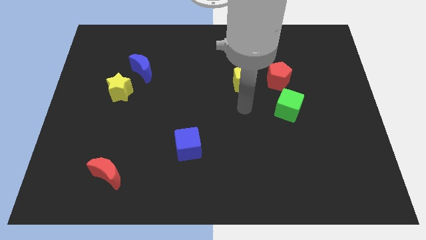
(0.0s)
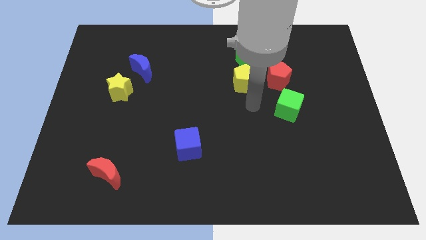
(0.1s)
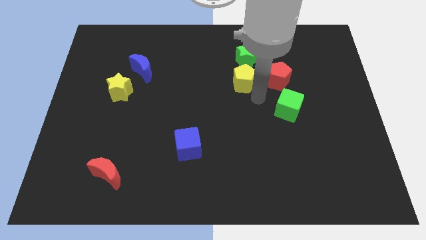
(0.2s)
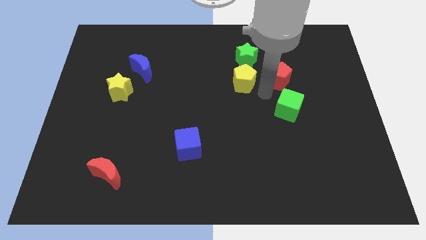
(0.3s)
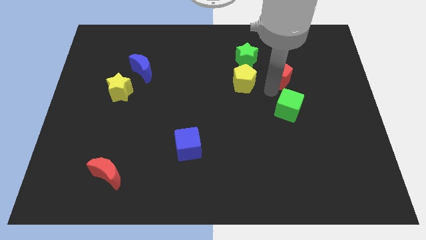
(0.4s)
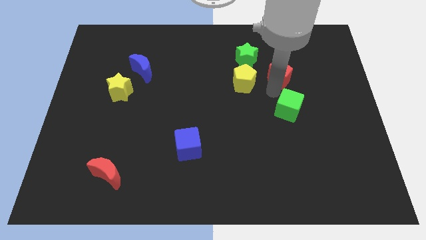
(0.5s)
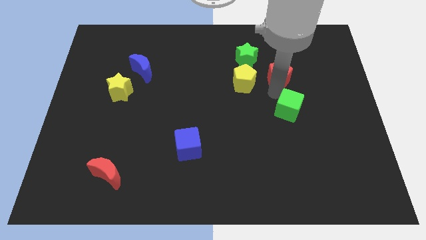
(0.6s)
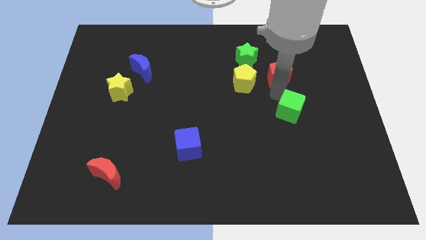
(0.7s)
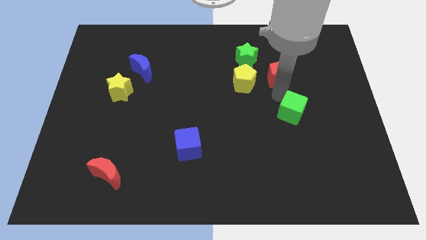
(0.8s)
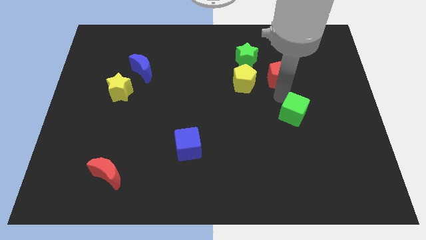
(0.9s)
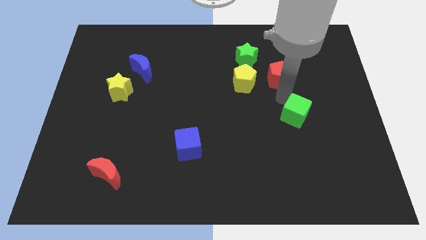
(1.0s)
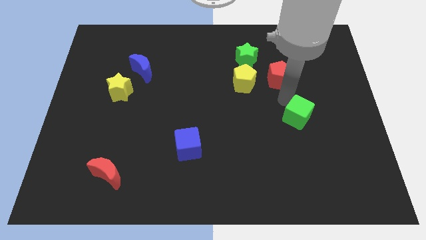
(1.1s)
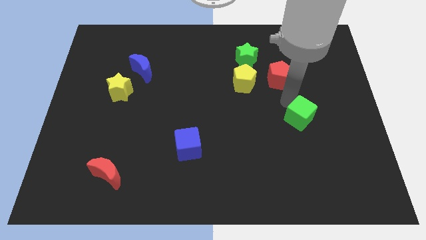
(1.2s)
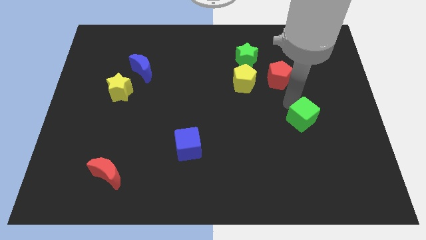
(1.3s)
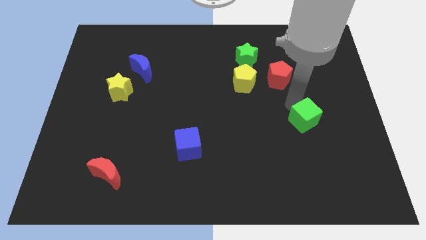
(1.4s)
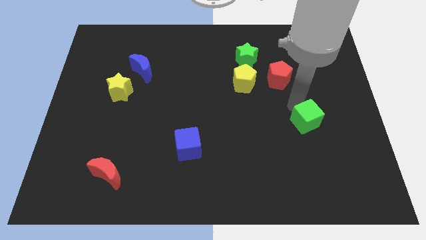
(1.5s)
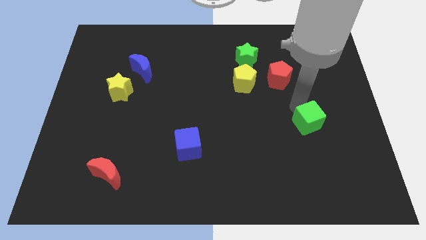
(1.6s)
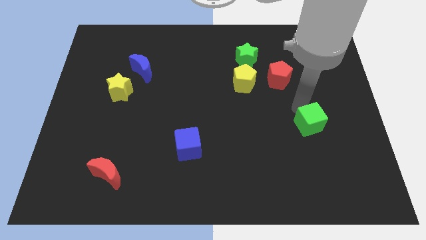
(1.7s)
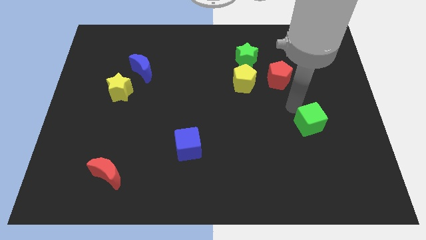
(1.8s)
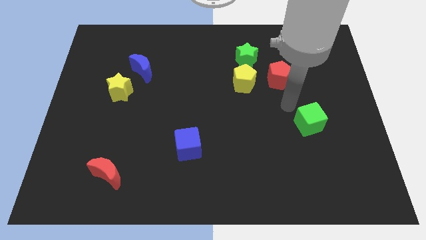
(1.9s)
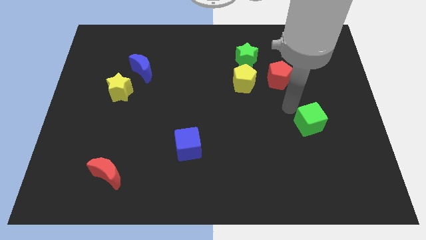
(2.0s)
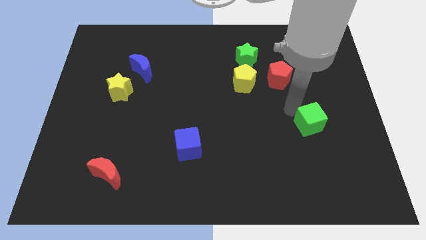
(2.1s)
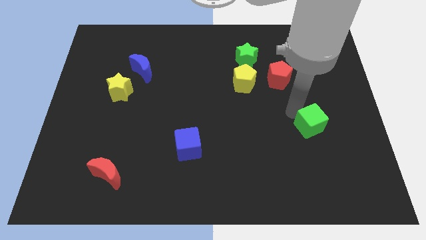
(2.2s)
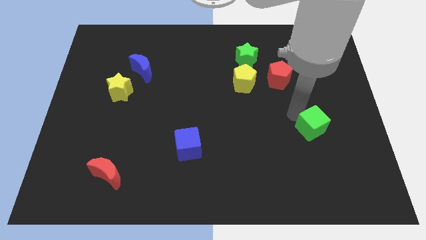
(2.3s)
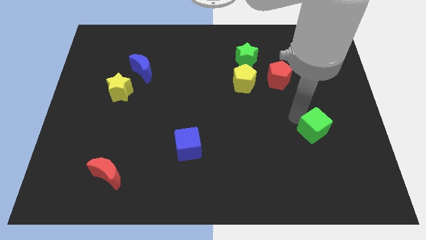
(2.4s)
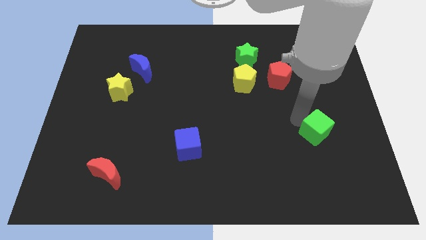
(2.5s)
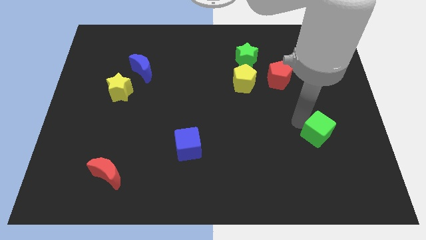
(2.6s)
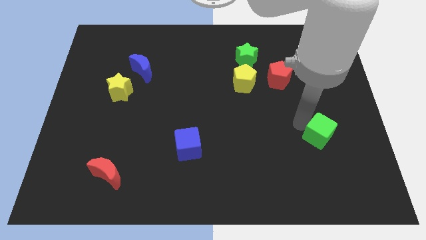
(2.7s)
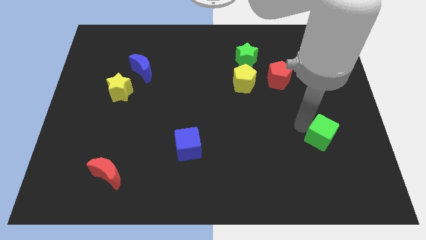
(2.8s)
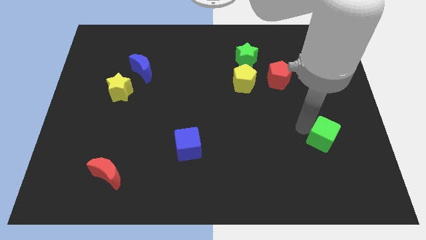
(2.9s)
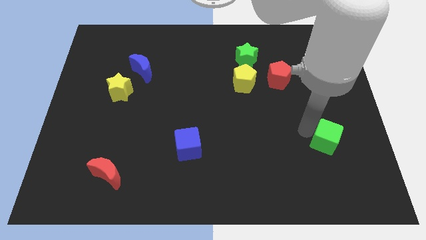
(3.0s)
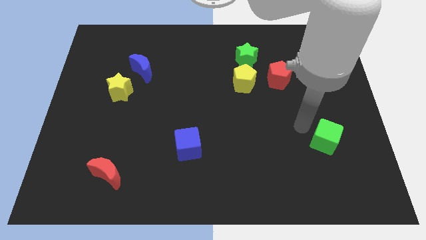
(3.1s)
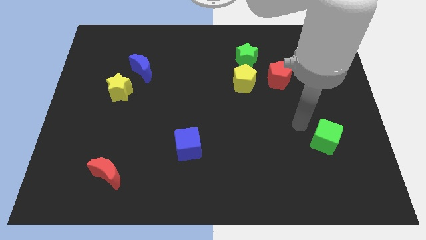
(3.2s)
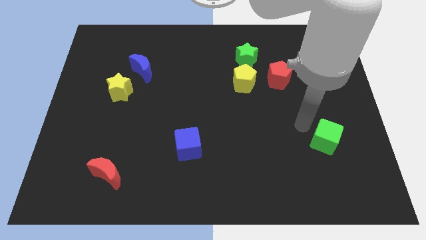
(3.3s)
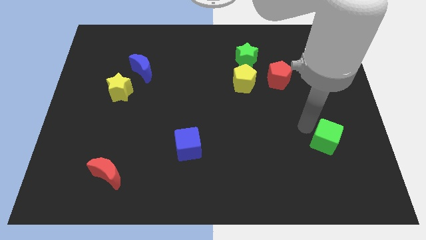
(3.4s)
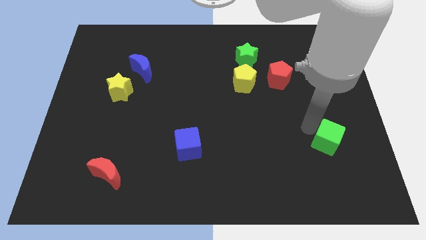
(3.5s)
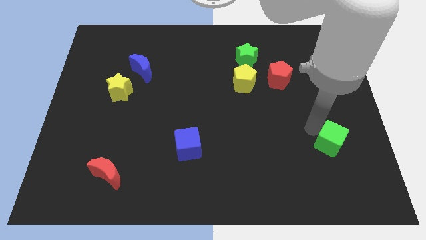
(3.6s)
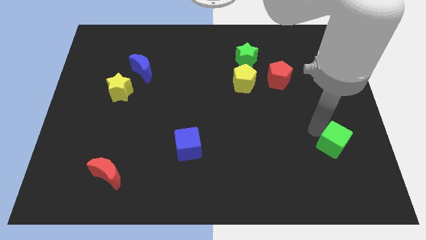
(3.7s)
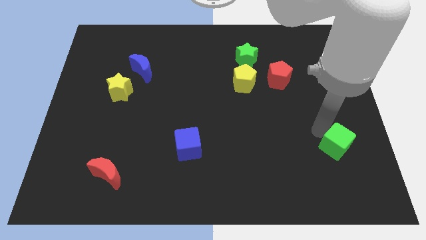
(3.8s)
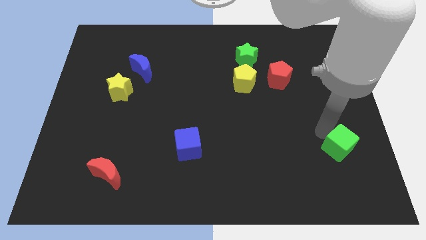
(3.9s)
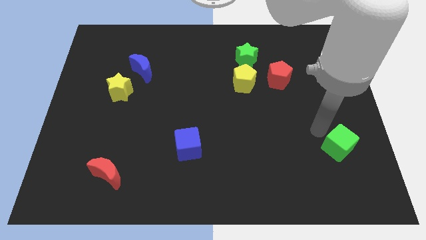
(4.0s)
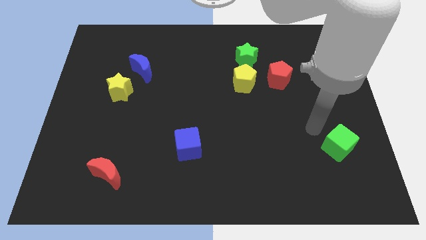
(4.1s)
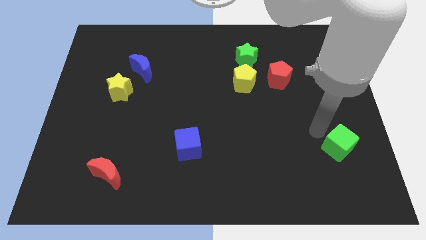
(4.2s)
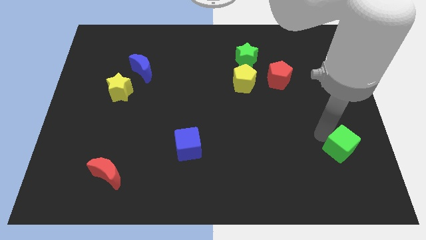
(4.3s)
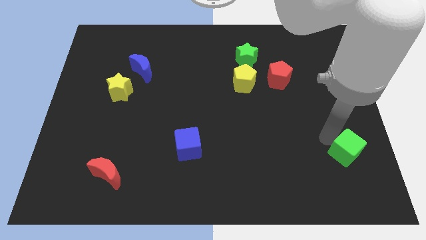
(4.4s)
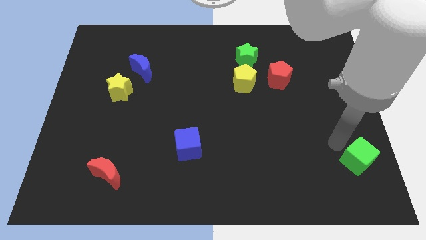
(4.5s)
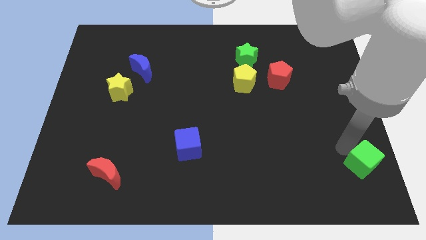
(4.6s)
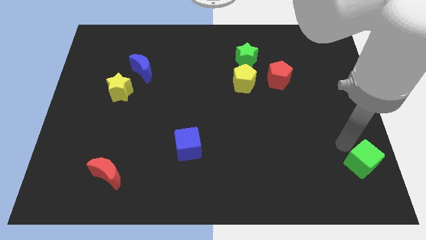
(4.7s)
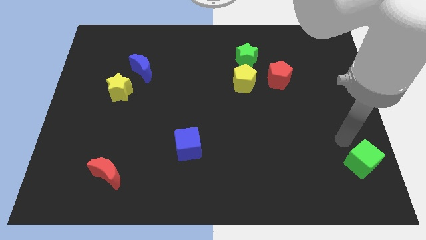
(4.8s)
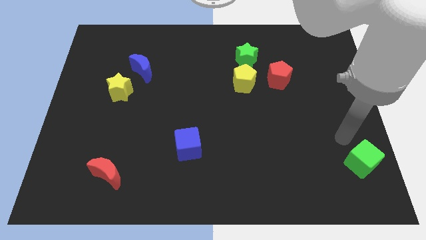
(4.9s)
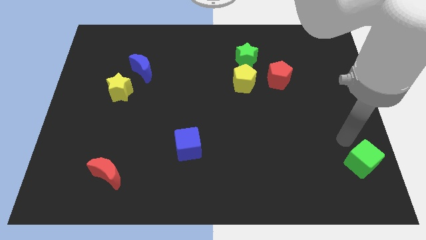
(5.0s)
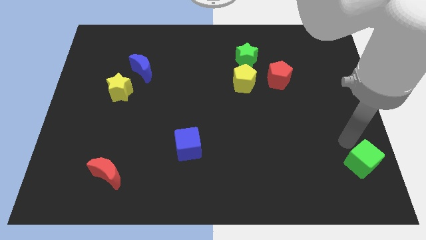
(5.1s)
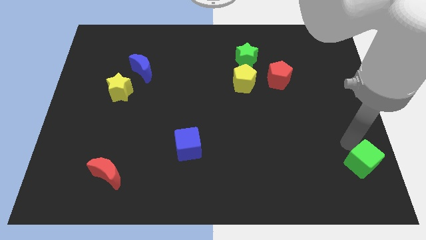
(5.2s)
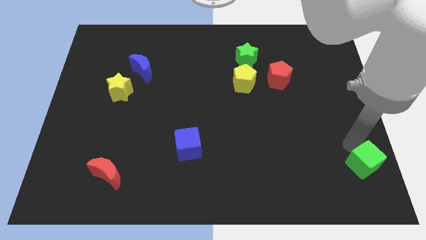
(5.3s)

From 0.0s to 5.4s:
move the green cube to the bottom right corner

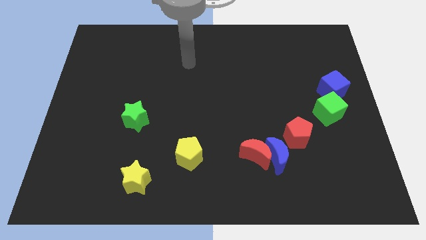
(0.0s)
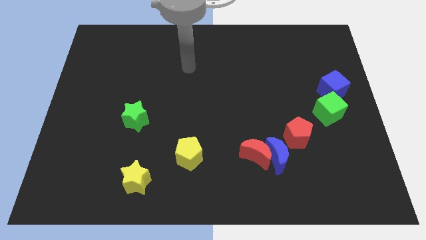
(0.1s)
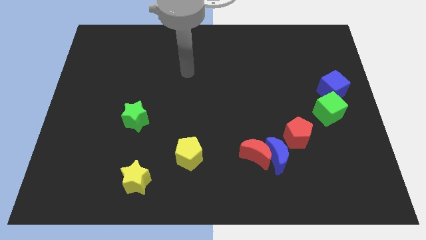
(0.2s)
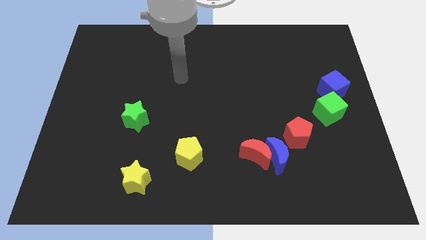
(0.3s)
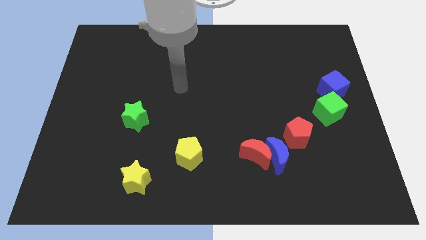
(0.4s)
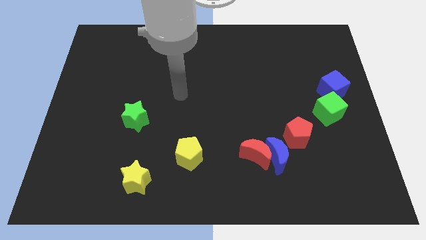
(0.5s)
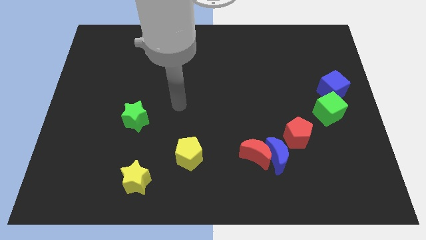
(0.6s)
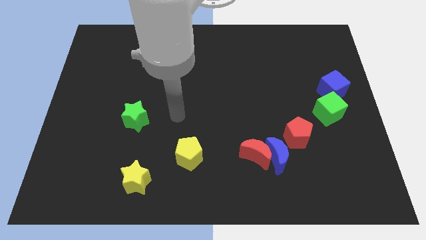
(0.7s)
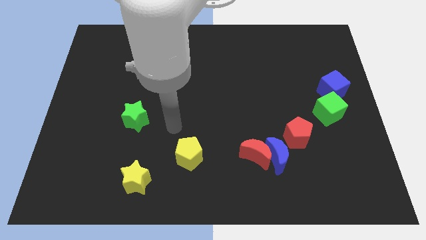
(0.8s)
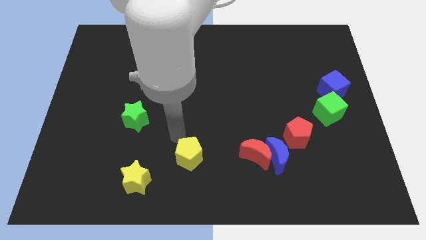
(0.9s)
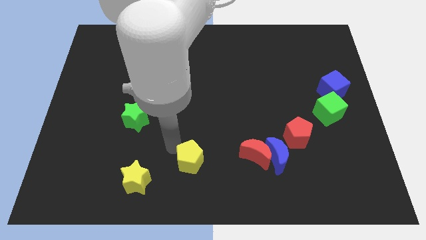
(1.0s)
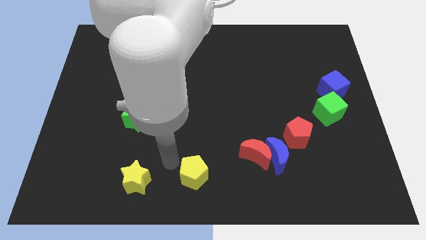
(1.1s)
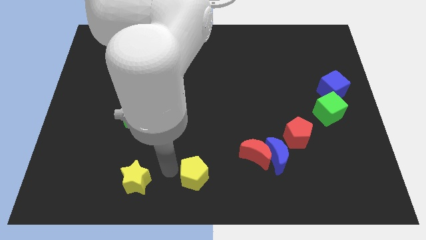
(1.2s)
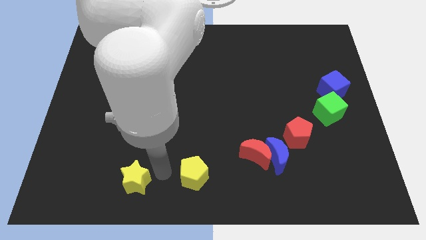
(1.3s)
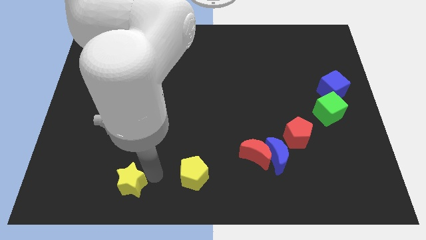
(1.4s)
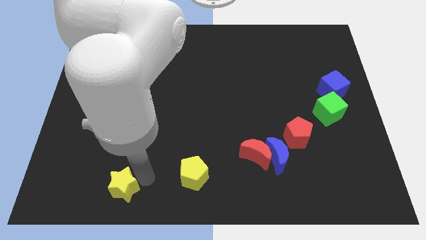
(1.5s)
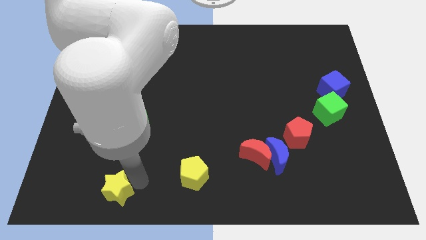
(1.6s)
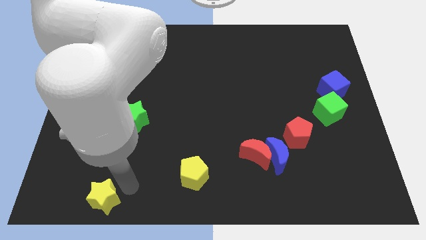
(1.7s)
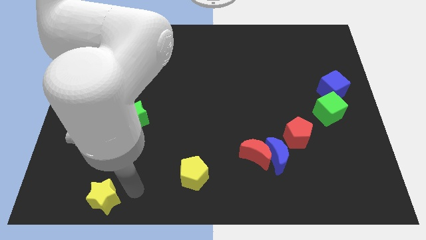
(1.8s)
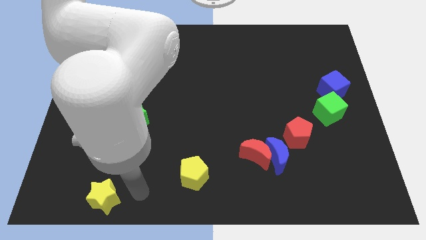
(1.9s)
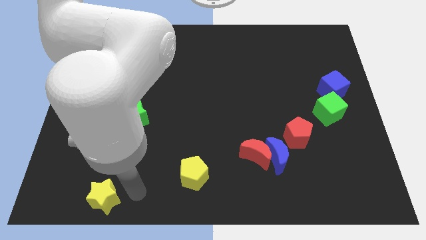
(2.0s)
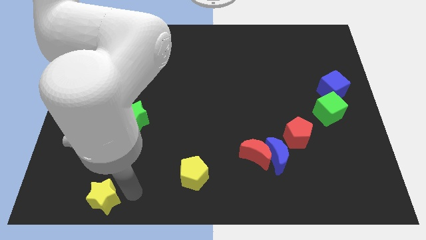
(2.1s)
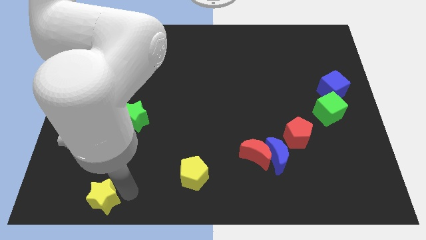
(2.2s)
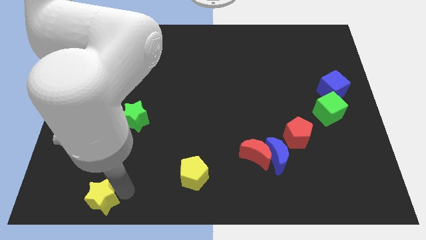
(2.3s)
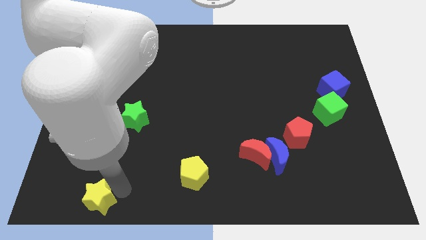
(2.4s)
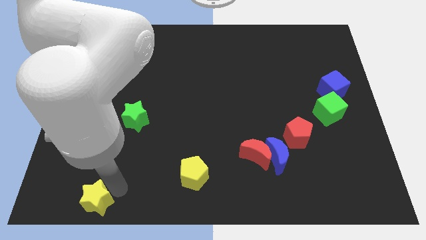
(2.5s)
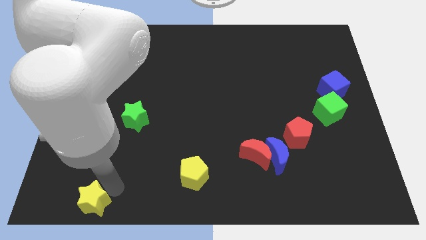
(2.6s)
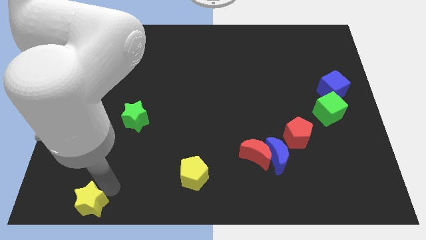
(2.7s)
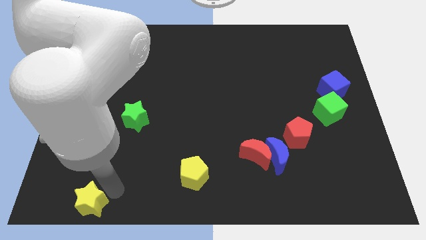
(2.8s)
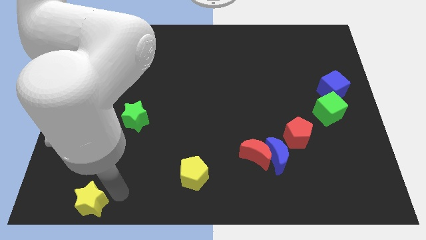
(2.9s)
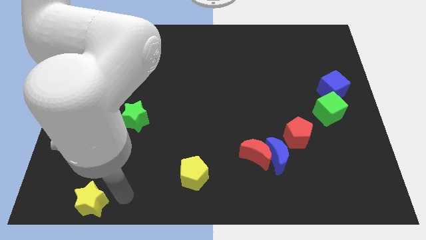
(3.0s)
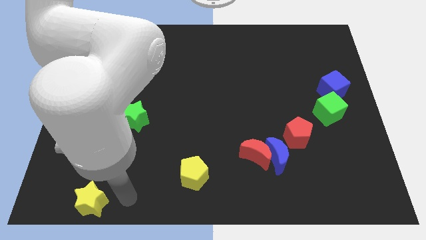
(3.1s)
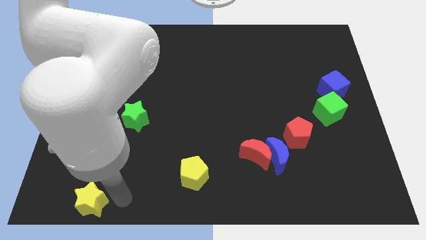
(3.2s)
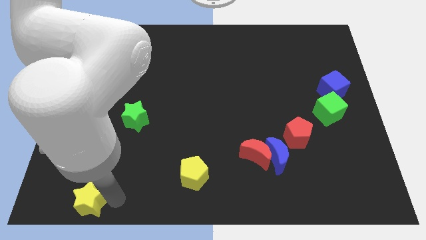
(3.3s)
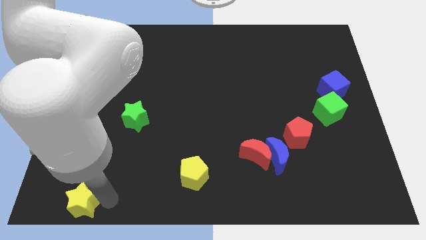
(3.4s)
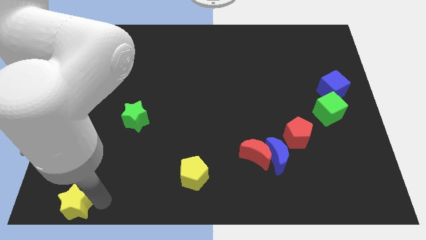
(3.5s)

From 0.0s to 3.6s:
slide the yellow star to the lower left corner
